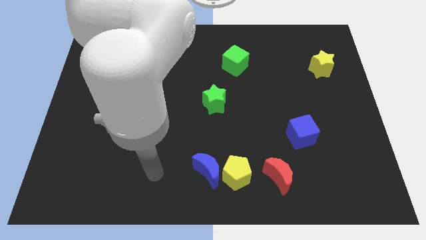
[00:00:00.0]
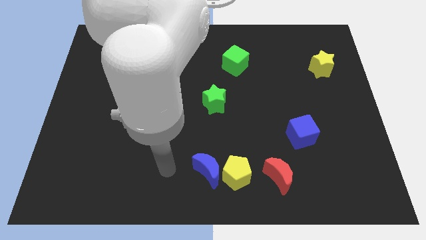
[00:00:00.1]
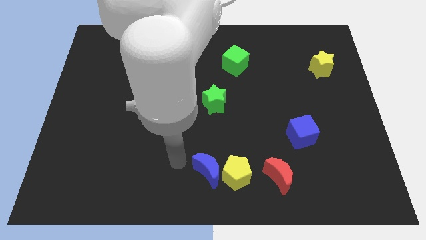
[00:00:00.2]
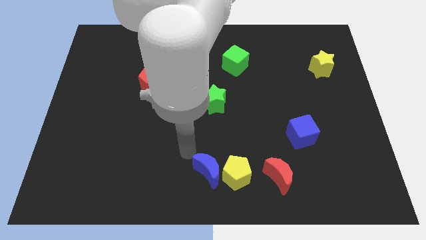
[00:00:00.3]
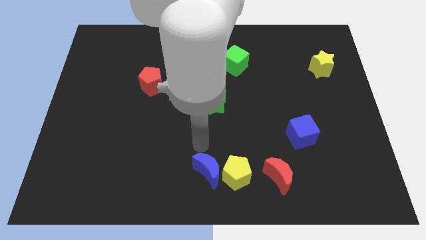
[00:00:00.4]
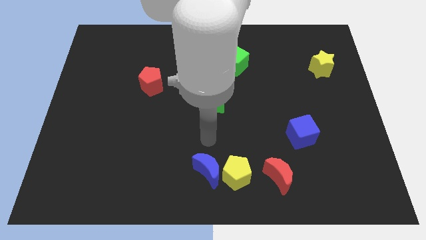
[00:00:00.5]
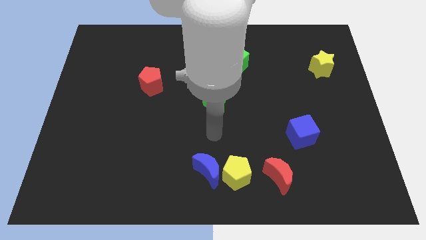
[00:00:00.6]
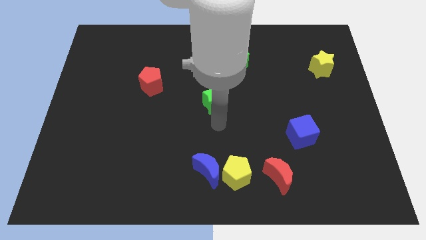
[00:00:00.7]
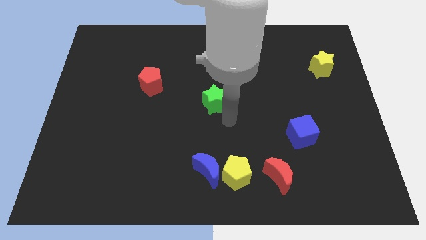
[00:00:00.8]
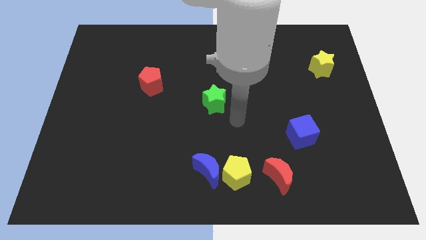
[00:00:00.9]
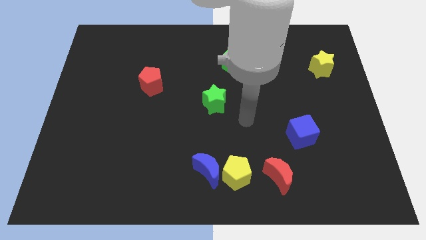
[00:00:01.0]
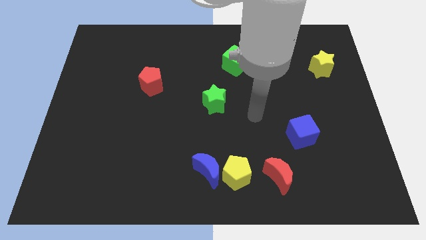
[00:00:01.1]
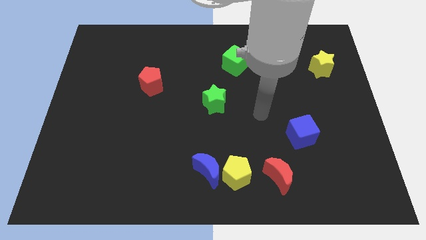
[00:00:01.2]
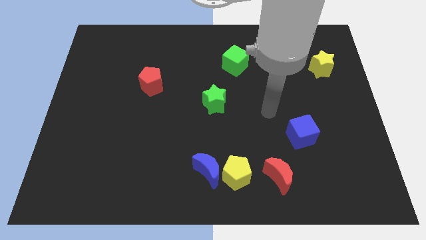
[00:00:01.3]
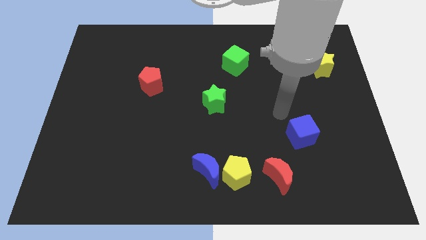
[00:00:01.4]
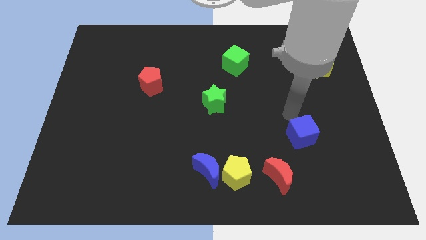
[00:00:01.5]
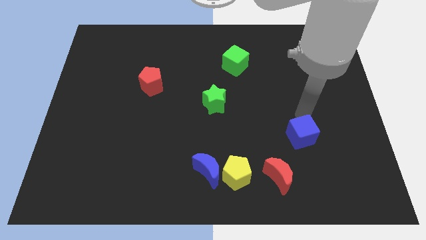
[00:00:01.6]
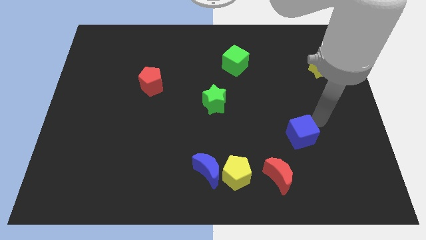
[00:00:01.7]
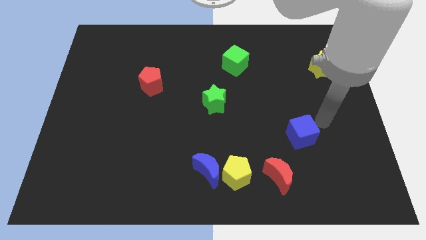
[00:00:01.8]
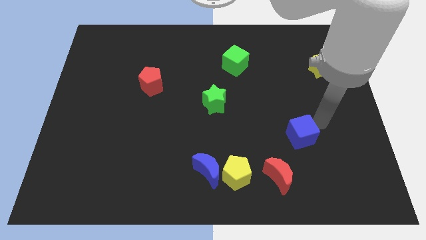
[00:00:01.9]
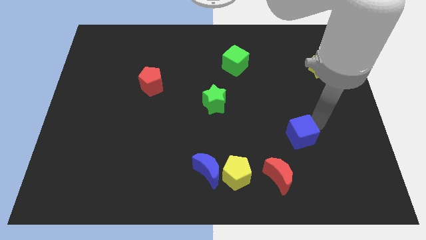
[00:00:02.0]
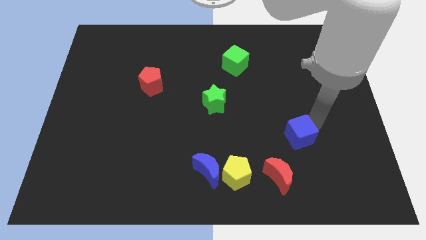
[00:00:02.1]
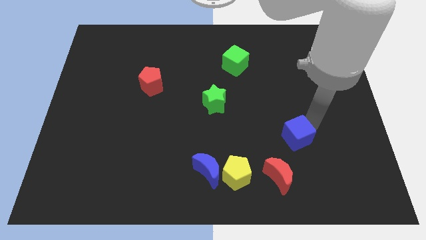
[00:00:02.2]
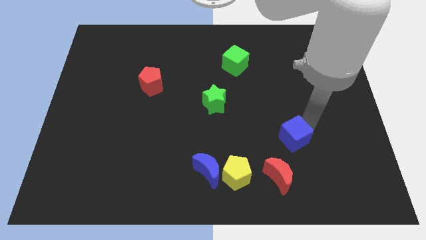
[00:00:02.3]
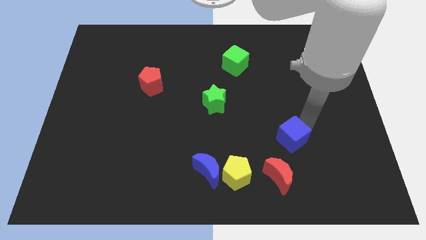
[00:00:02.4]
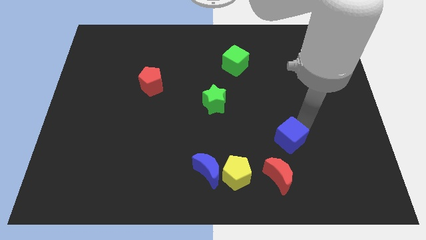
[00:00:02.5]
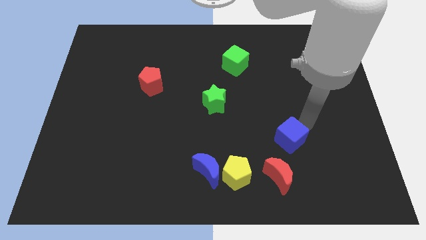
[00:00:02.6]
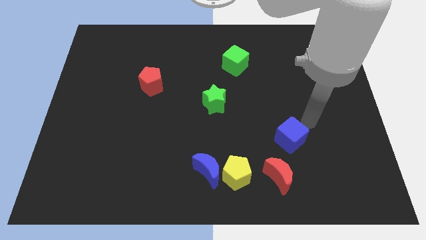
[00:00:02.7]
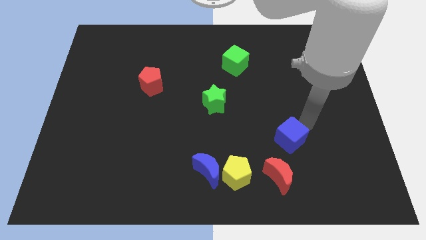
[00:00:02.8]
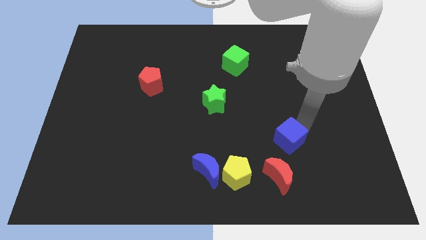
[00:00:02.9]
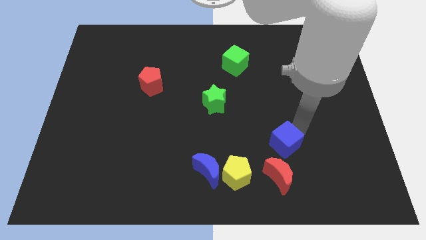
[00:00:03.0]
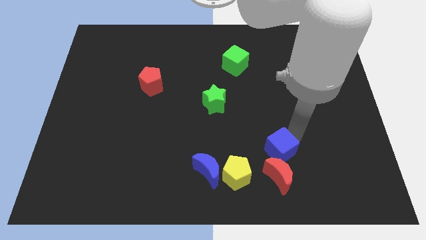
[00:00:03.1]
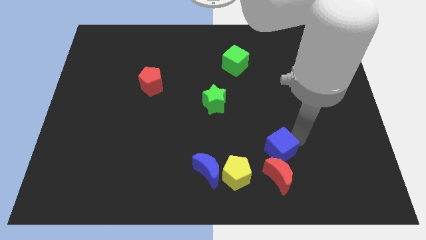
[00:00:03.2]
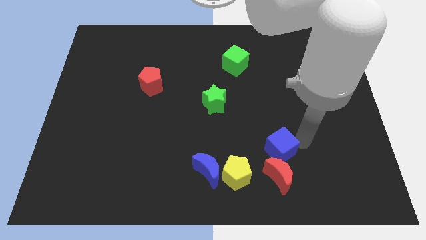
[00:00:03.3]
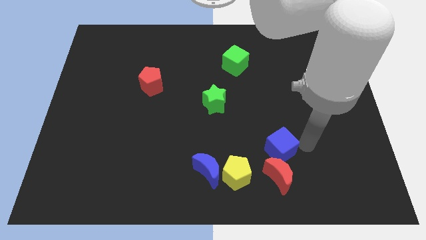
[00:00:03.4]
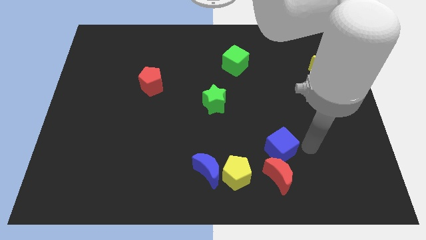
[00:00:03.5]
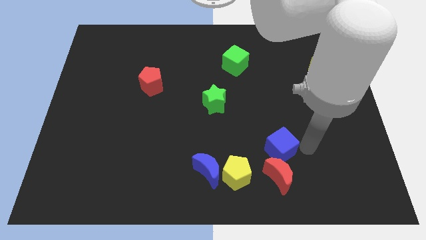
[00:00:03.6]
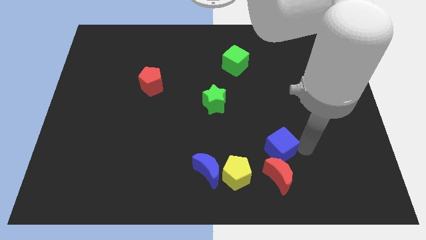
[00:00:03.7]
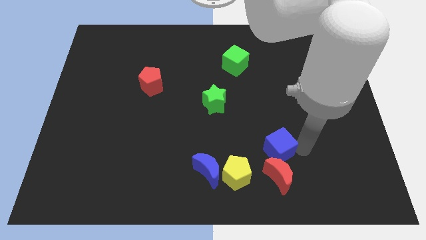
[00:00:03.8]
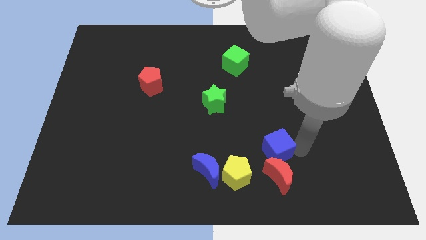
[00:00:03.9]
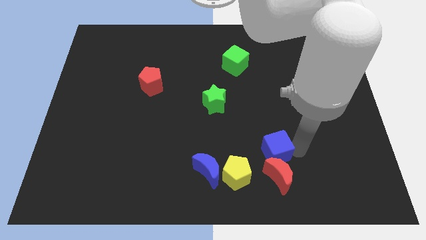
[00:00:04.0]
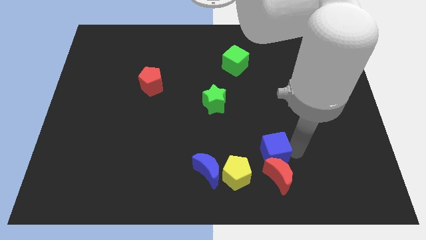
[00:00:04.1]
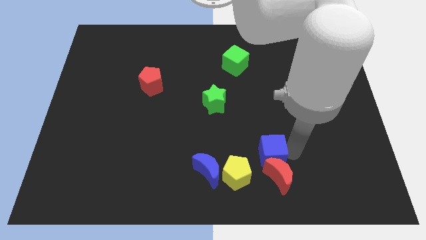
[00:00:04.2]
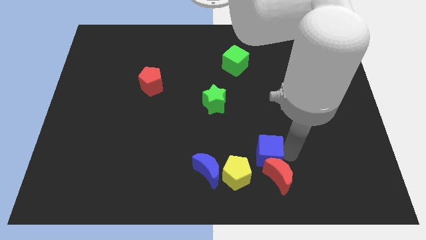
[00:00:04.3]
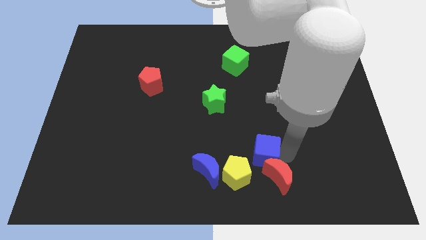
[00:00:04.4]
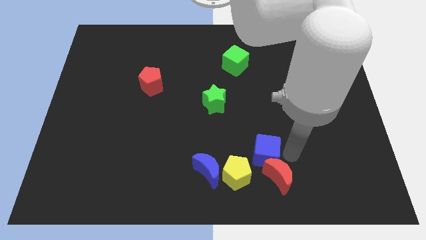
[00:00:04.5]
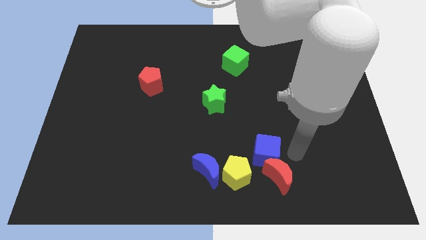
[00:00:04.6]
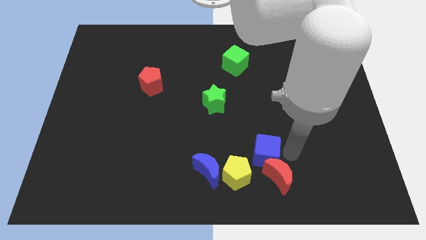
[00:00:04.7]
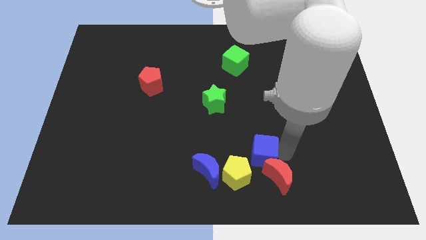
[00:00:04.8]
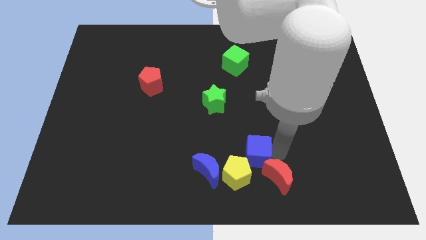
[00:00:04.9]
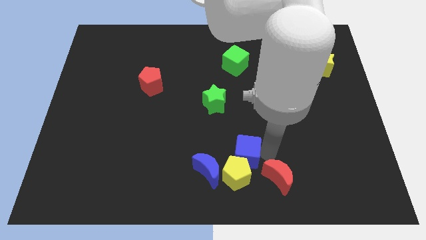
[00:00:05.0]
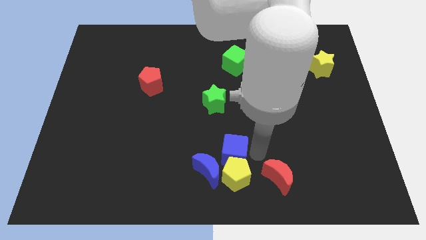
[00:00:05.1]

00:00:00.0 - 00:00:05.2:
slide the blue cube to the top left side of the yellow pentagon
